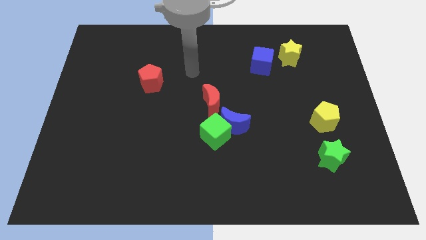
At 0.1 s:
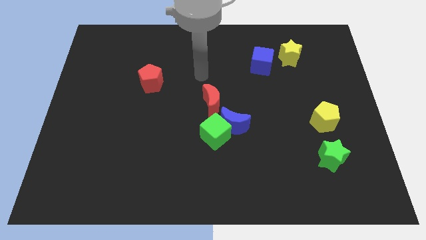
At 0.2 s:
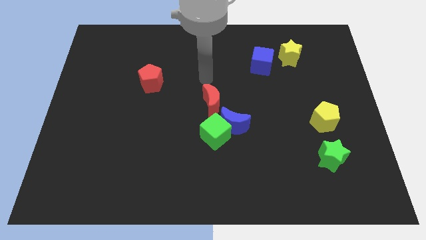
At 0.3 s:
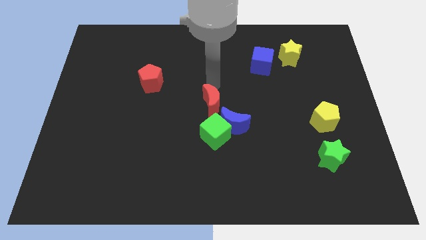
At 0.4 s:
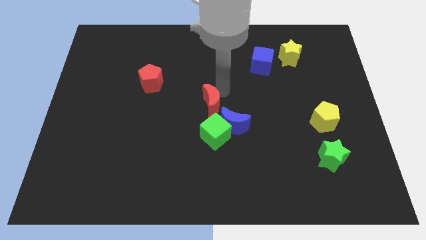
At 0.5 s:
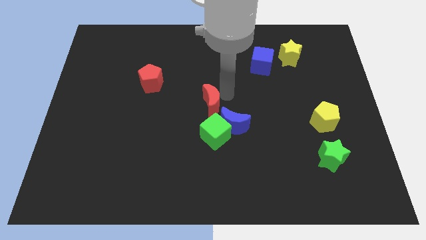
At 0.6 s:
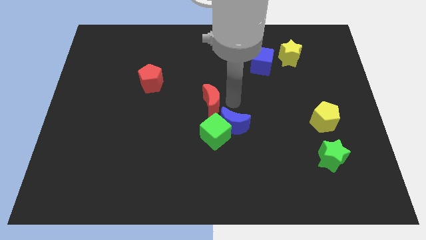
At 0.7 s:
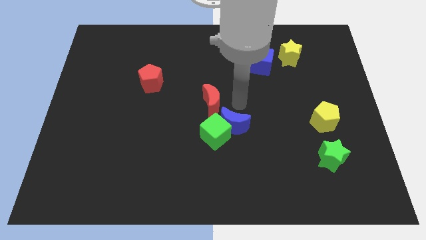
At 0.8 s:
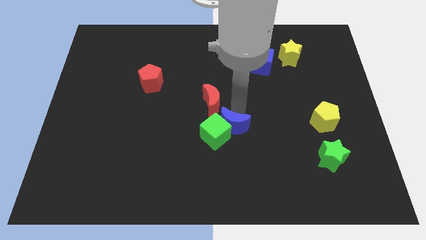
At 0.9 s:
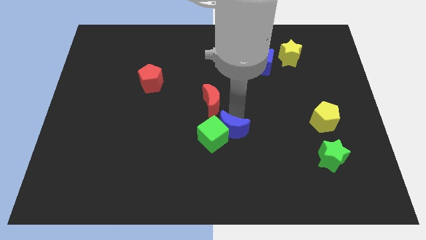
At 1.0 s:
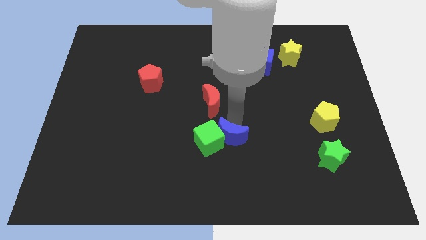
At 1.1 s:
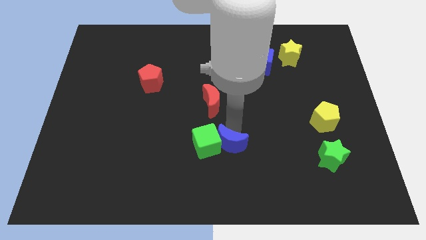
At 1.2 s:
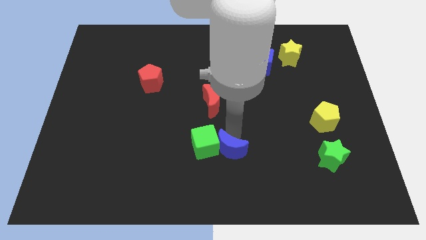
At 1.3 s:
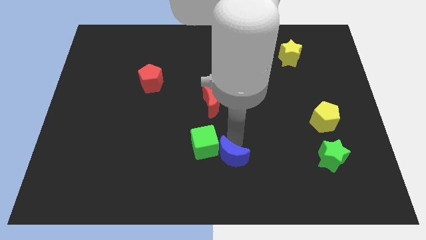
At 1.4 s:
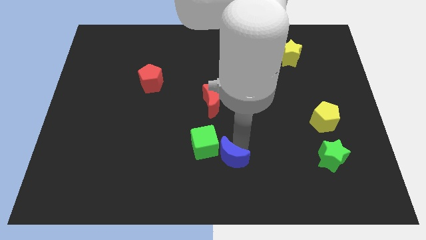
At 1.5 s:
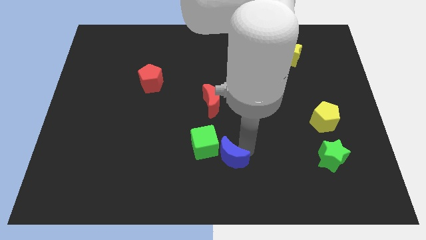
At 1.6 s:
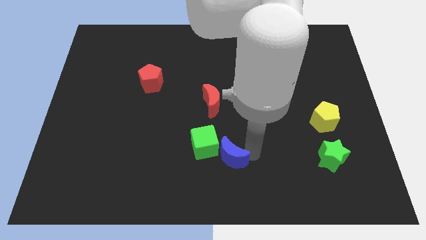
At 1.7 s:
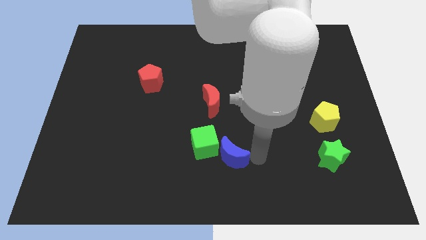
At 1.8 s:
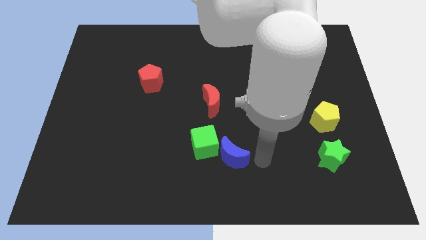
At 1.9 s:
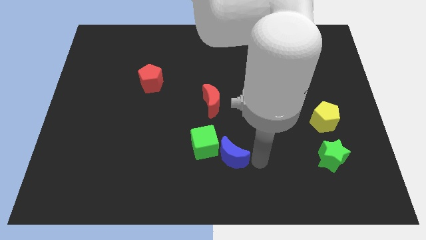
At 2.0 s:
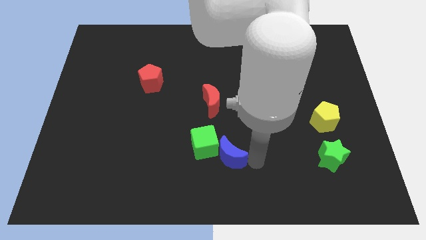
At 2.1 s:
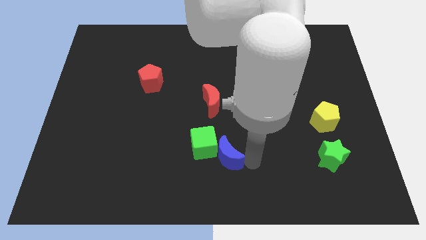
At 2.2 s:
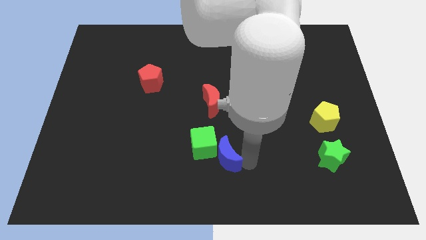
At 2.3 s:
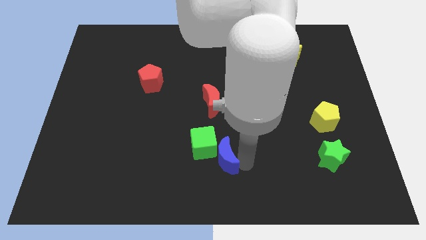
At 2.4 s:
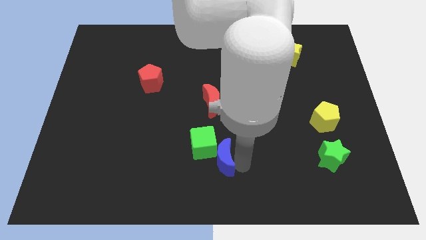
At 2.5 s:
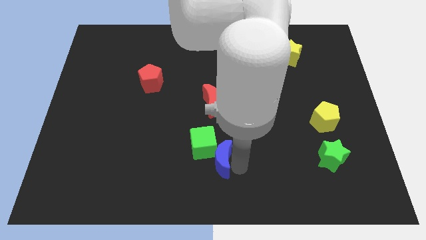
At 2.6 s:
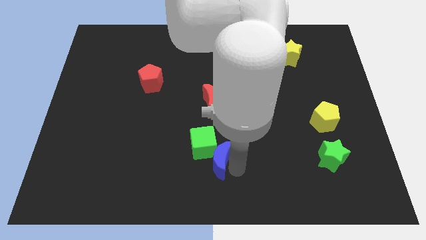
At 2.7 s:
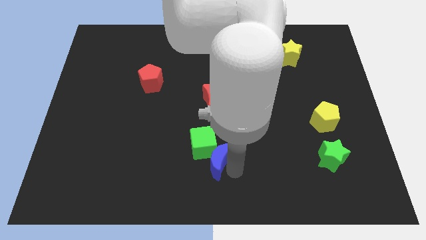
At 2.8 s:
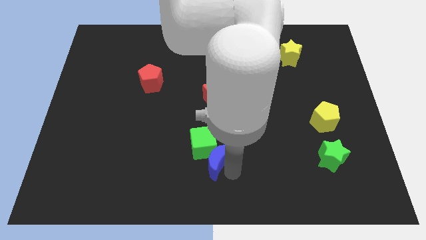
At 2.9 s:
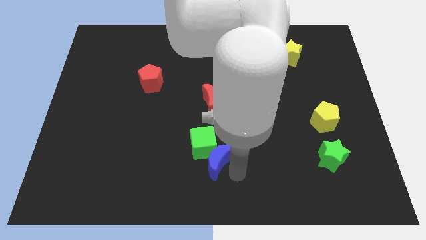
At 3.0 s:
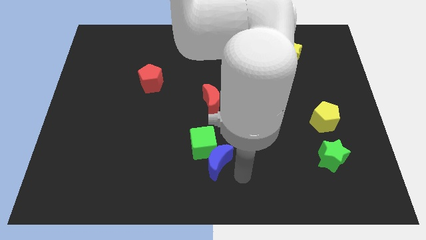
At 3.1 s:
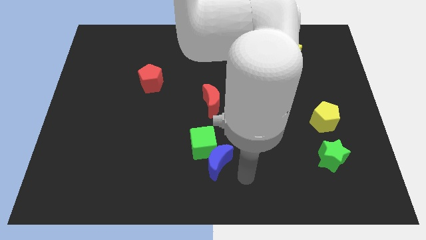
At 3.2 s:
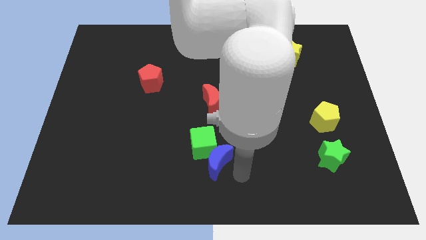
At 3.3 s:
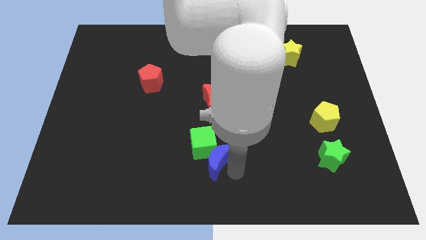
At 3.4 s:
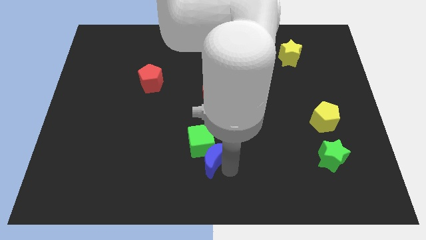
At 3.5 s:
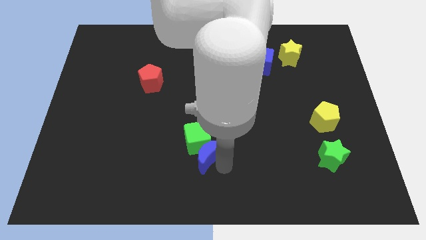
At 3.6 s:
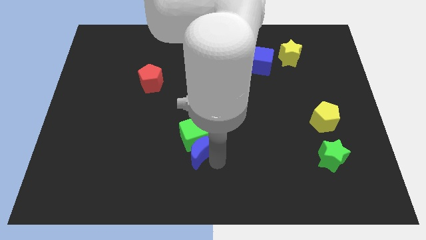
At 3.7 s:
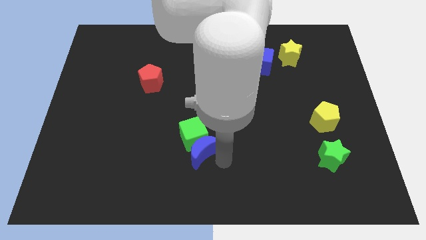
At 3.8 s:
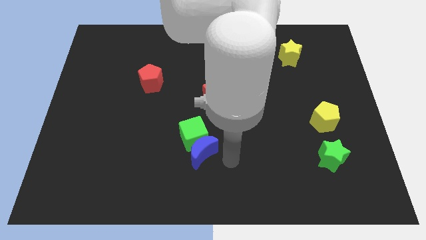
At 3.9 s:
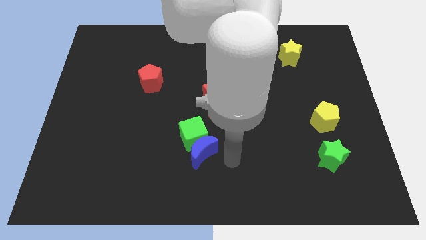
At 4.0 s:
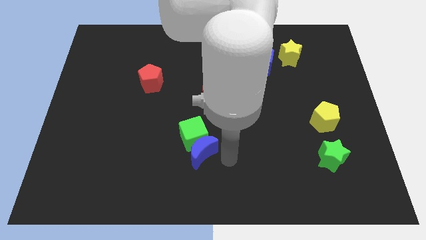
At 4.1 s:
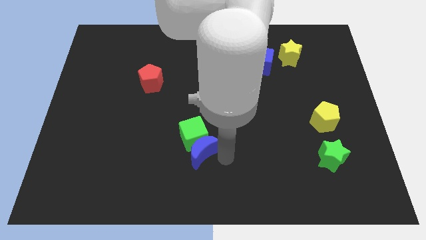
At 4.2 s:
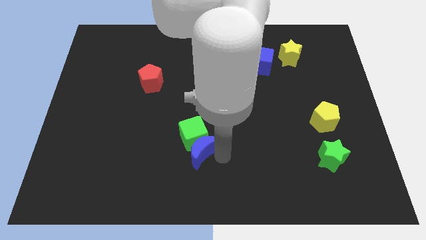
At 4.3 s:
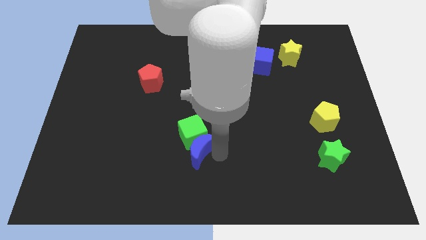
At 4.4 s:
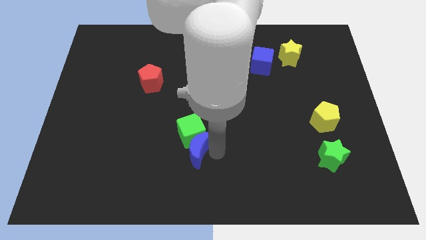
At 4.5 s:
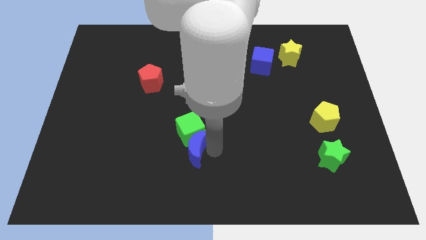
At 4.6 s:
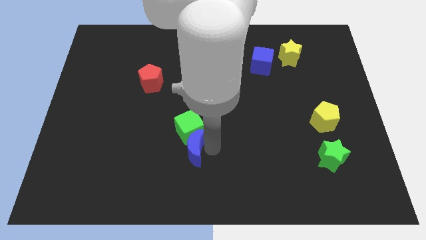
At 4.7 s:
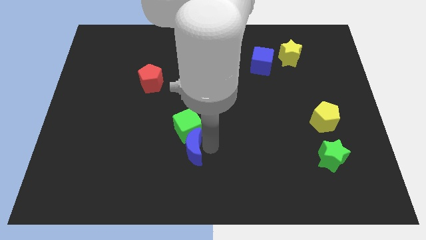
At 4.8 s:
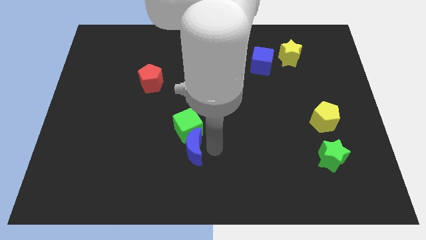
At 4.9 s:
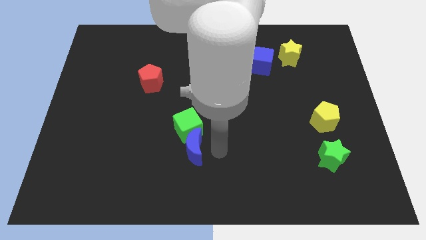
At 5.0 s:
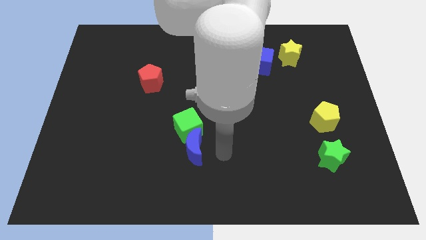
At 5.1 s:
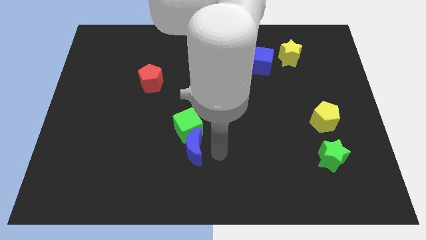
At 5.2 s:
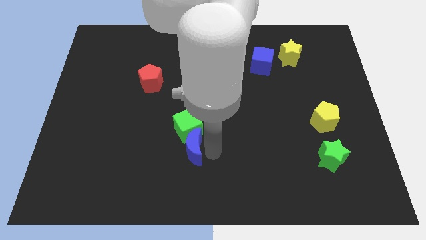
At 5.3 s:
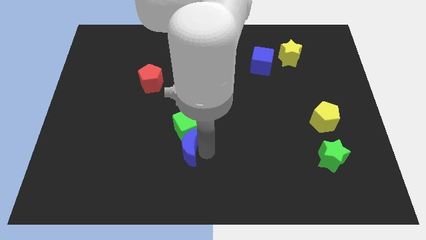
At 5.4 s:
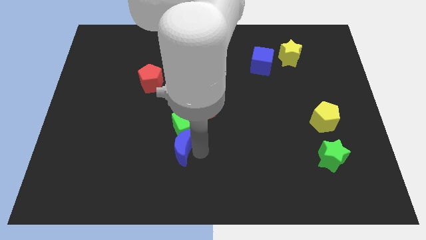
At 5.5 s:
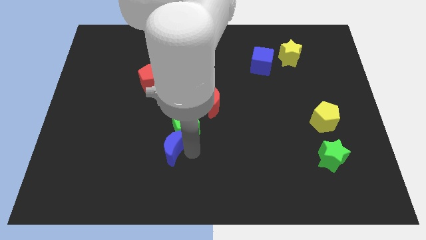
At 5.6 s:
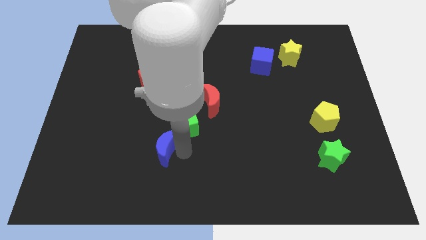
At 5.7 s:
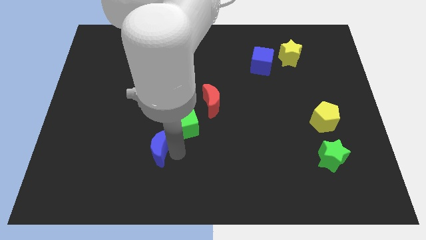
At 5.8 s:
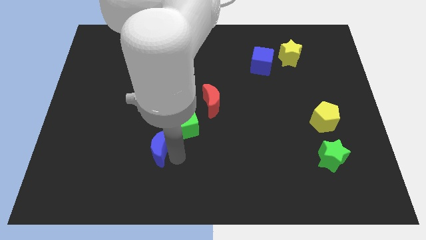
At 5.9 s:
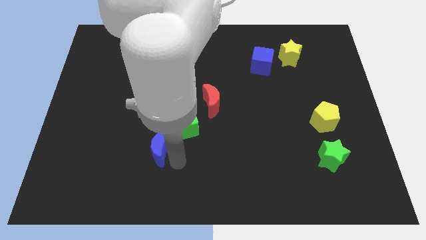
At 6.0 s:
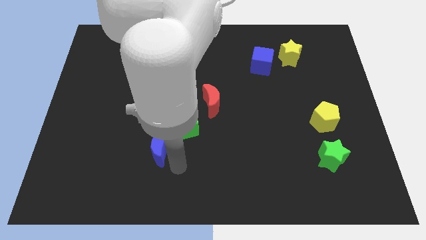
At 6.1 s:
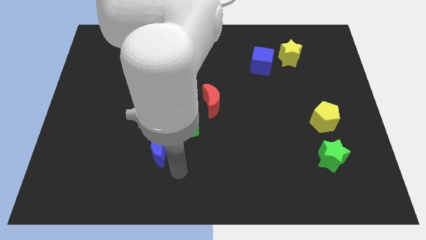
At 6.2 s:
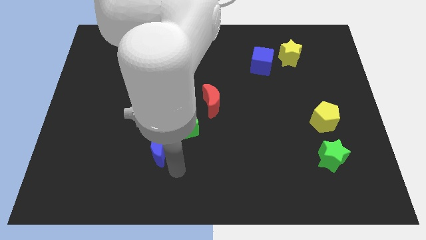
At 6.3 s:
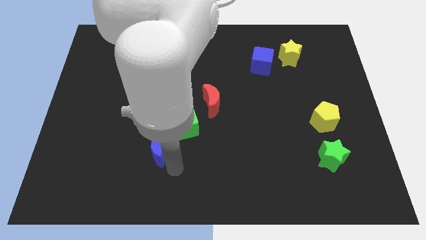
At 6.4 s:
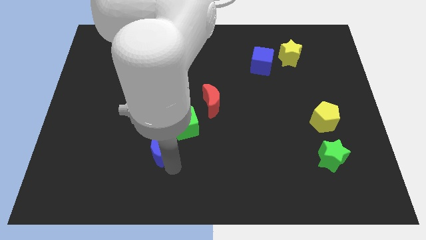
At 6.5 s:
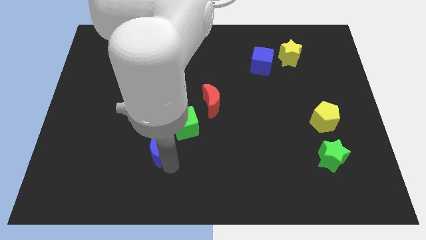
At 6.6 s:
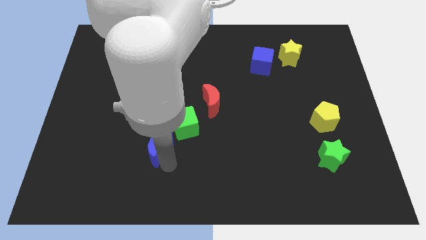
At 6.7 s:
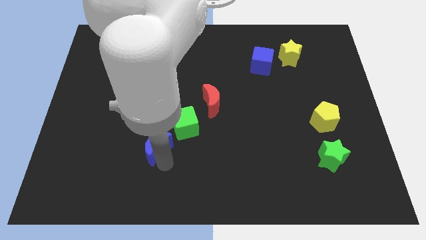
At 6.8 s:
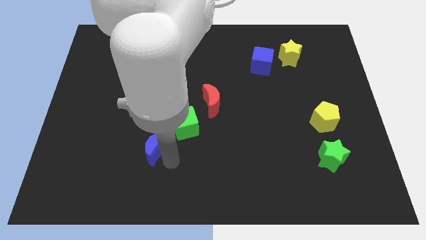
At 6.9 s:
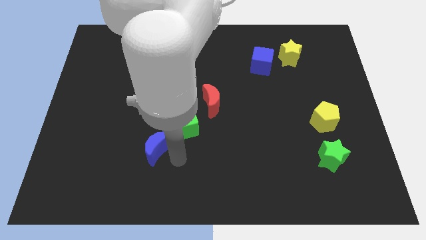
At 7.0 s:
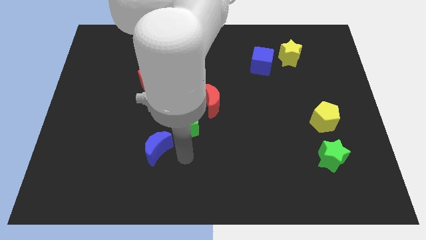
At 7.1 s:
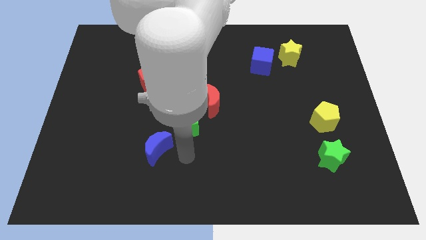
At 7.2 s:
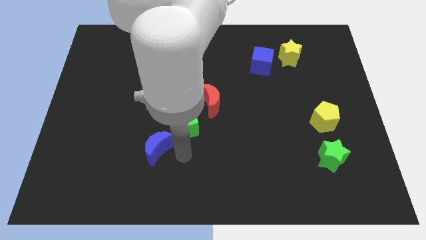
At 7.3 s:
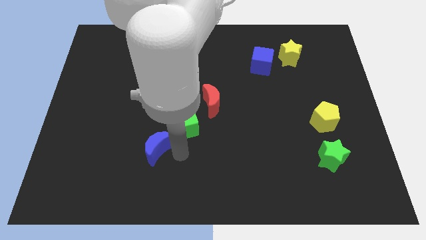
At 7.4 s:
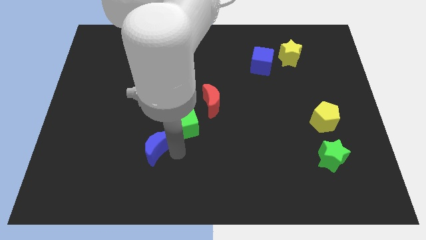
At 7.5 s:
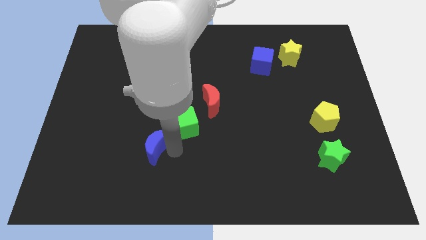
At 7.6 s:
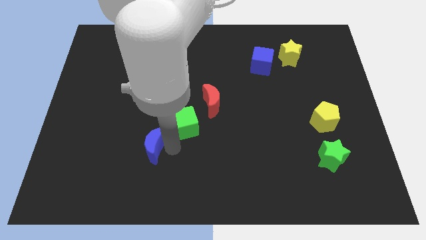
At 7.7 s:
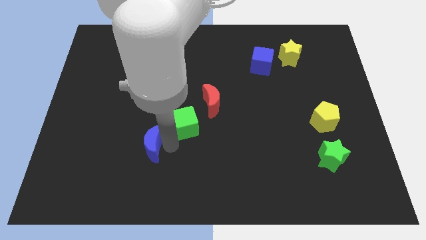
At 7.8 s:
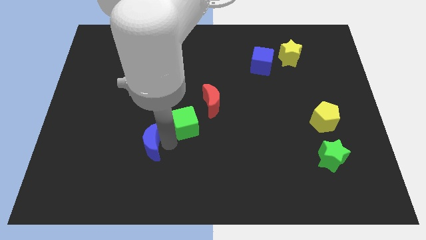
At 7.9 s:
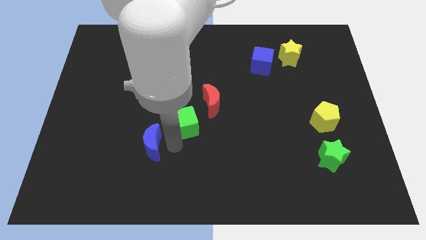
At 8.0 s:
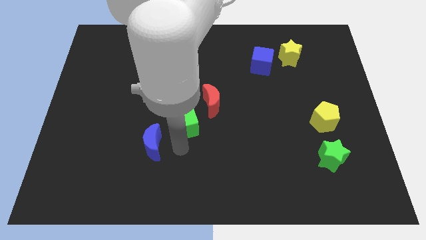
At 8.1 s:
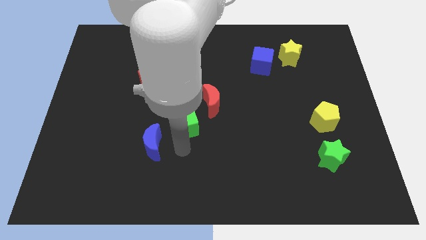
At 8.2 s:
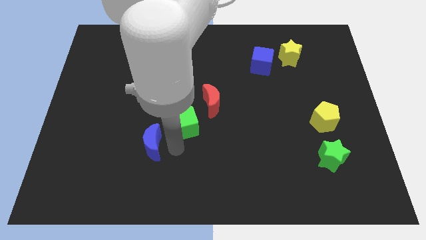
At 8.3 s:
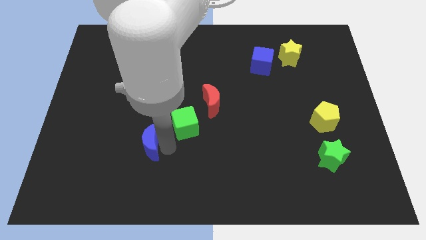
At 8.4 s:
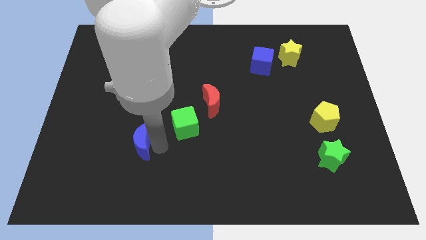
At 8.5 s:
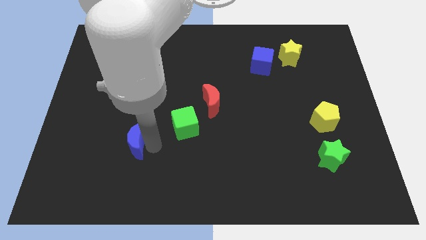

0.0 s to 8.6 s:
move the blue moon to the left

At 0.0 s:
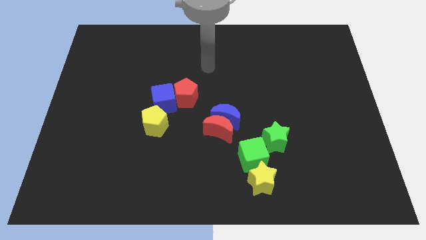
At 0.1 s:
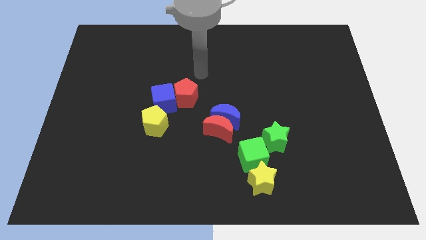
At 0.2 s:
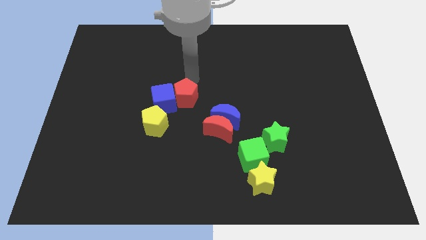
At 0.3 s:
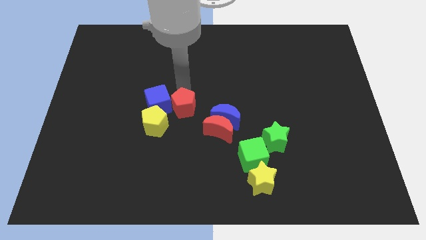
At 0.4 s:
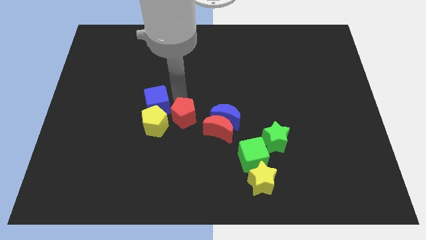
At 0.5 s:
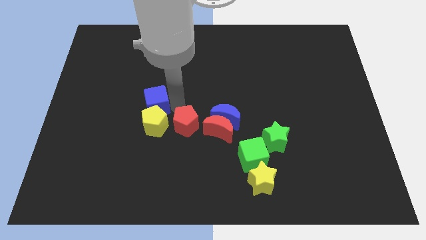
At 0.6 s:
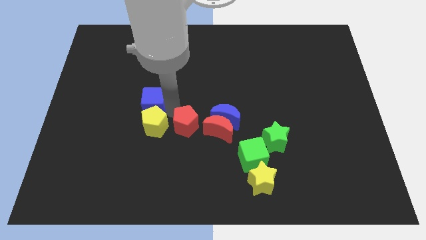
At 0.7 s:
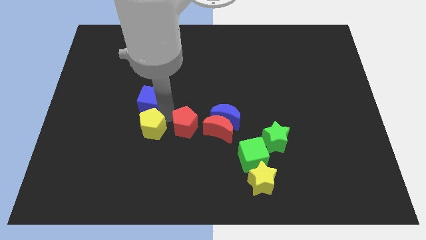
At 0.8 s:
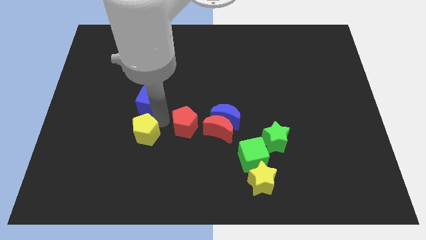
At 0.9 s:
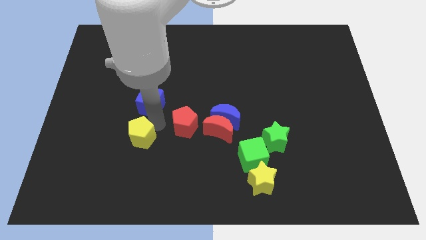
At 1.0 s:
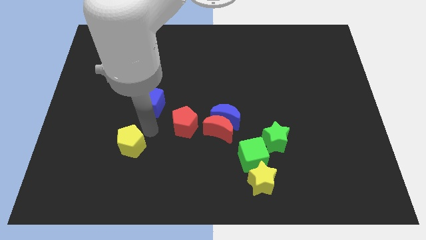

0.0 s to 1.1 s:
push the yellow pentagon downwards and left diagonally a little bit
